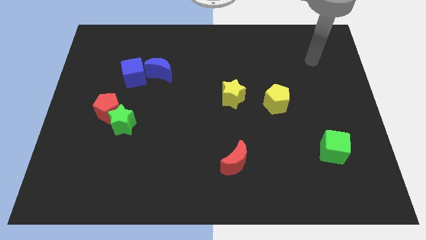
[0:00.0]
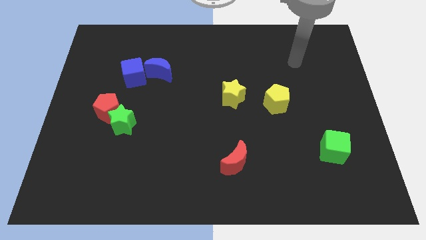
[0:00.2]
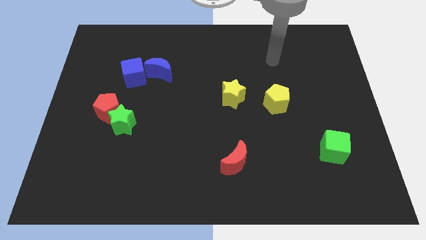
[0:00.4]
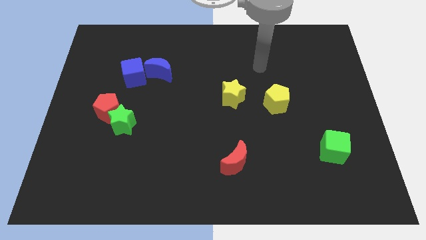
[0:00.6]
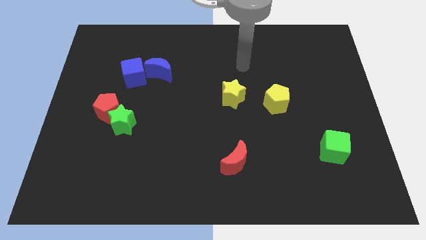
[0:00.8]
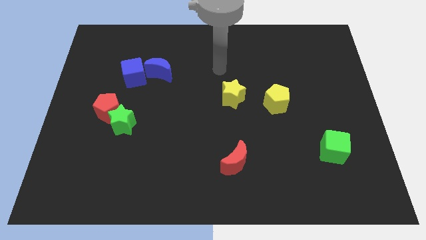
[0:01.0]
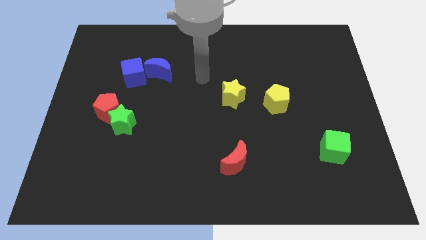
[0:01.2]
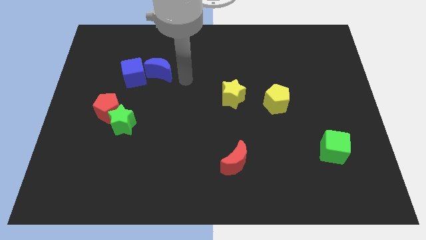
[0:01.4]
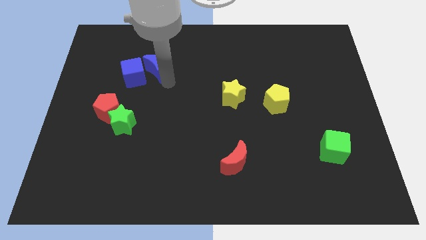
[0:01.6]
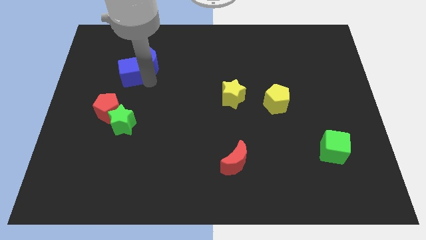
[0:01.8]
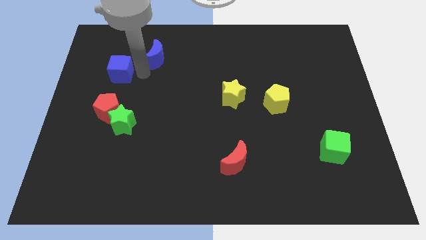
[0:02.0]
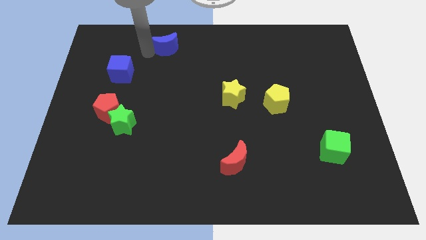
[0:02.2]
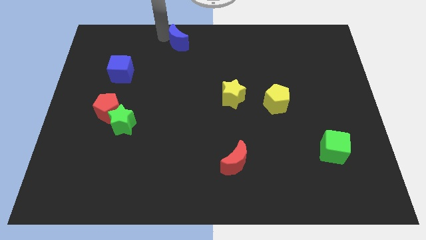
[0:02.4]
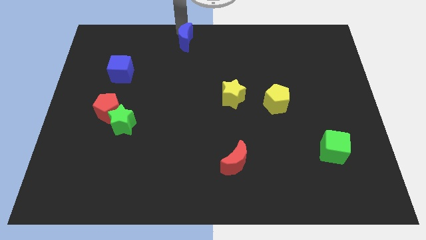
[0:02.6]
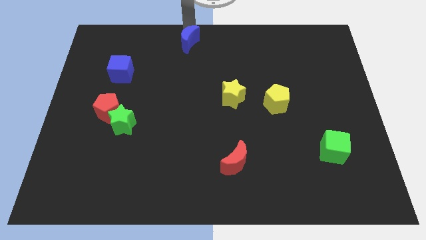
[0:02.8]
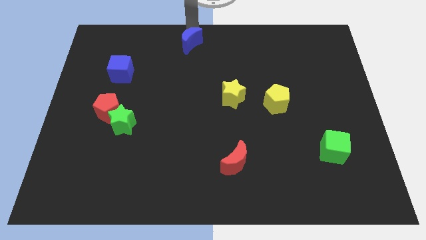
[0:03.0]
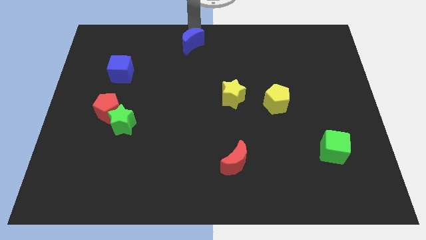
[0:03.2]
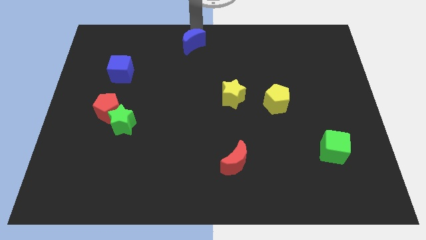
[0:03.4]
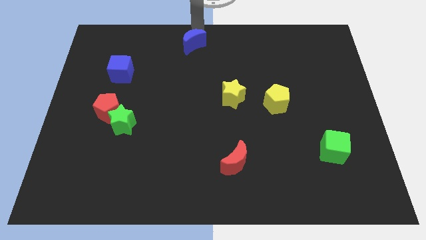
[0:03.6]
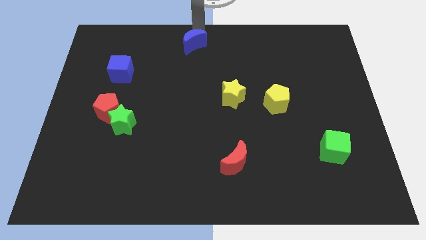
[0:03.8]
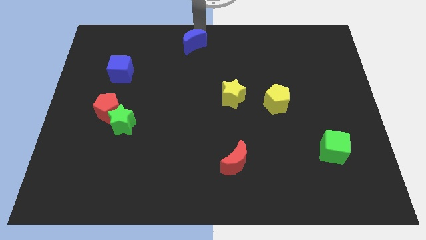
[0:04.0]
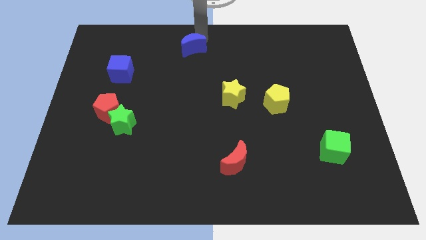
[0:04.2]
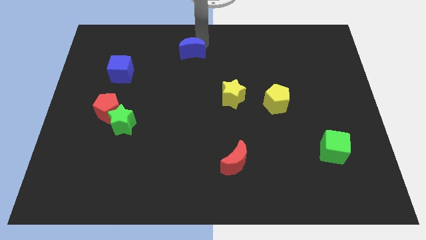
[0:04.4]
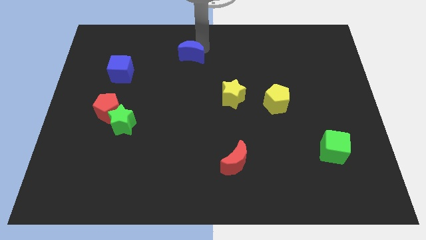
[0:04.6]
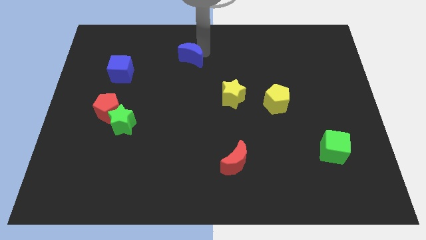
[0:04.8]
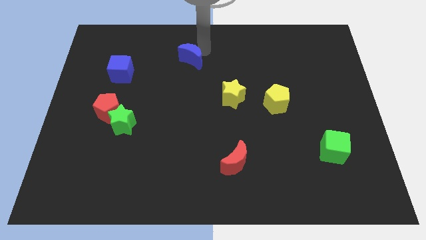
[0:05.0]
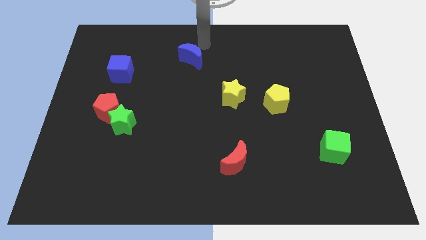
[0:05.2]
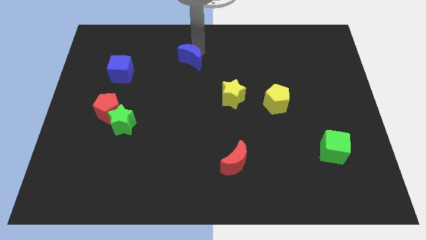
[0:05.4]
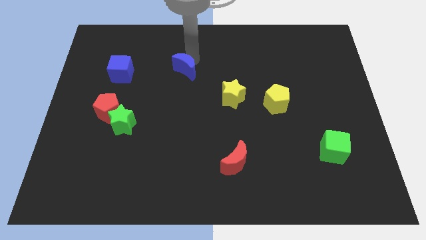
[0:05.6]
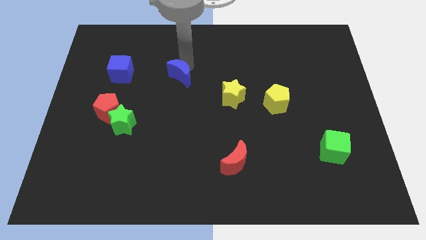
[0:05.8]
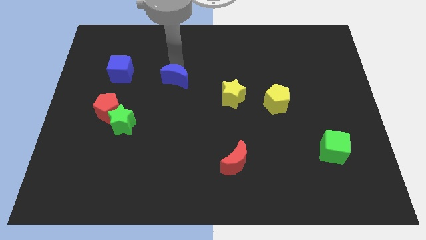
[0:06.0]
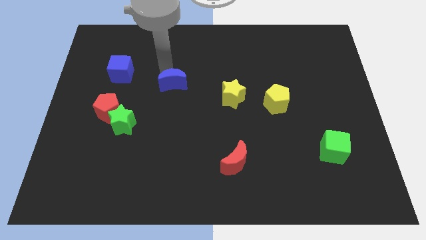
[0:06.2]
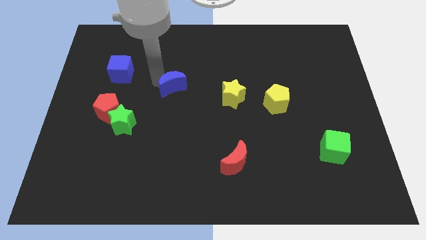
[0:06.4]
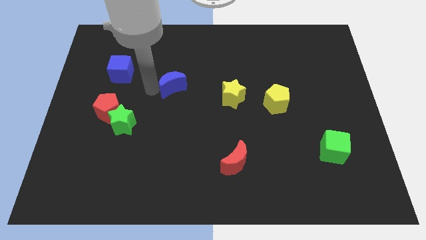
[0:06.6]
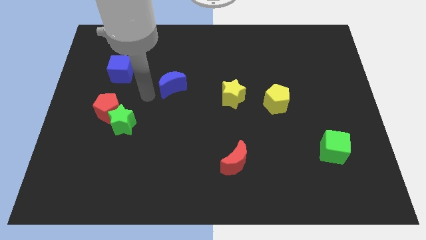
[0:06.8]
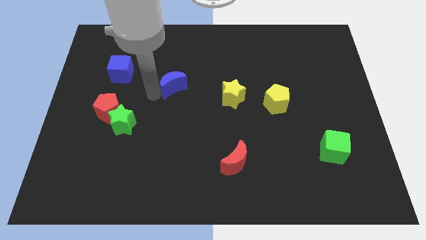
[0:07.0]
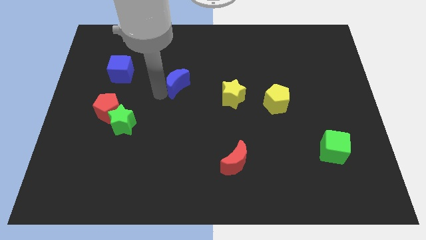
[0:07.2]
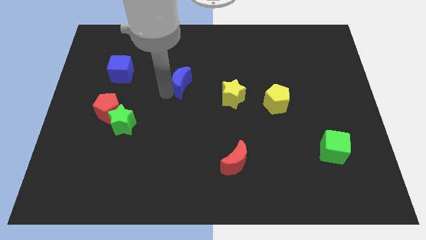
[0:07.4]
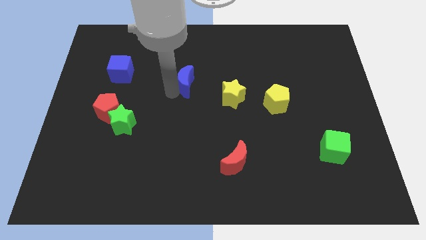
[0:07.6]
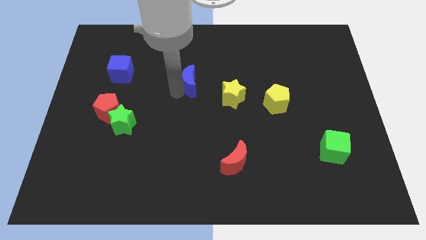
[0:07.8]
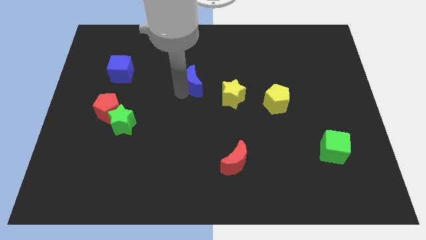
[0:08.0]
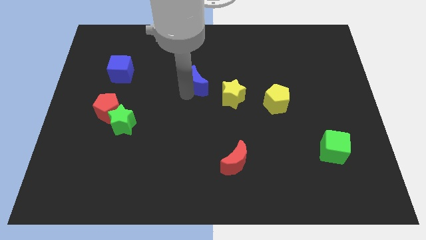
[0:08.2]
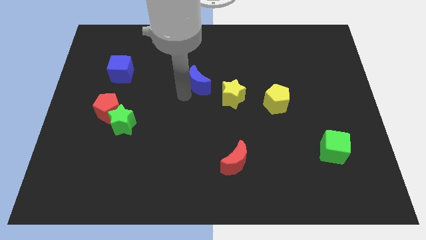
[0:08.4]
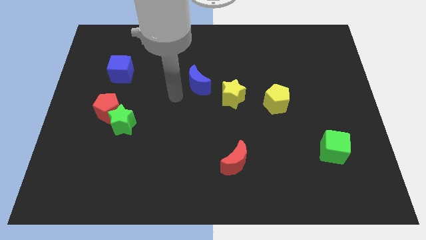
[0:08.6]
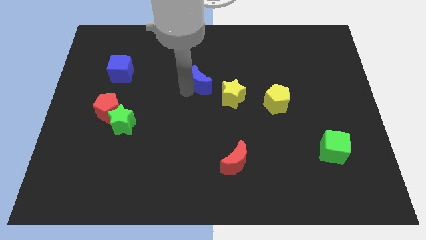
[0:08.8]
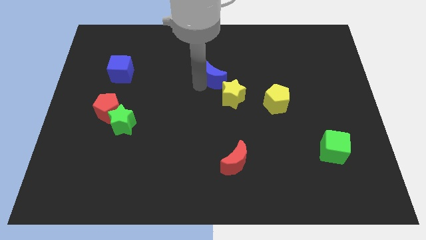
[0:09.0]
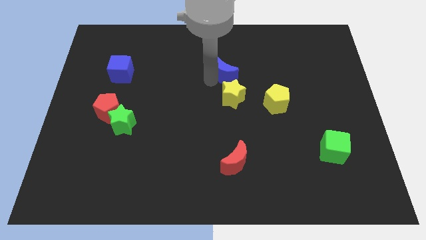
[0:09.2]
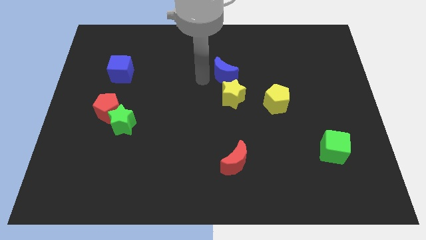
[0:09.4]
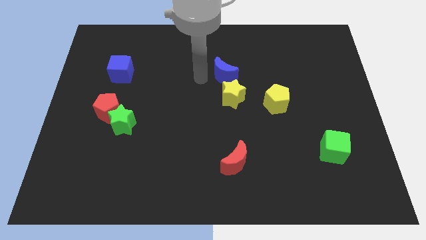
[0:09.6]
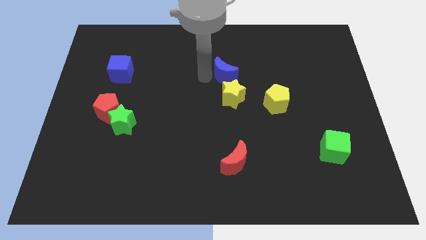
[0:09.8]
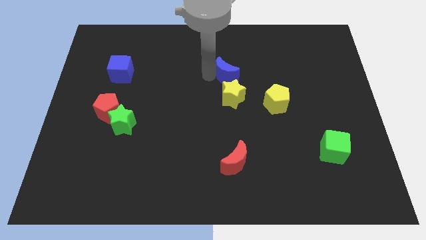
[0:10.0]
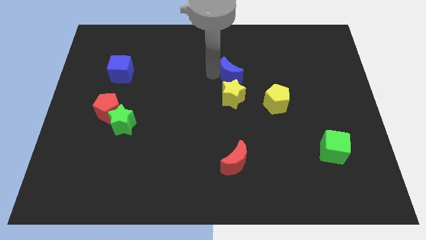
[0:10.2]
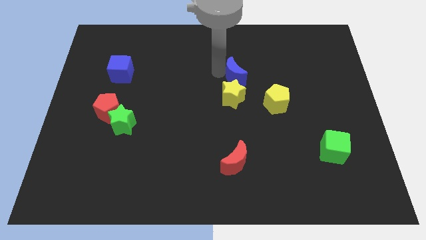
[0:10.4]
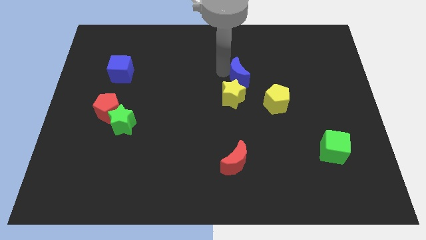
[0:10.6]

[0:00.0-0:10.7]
move the blue moon to the right

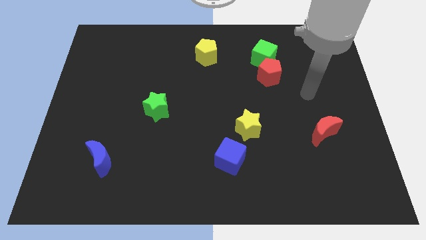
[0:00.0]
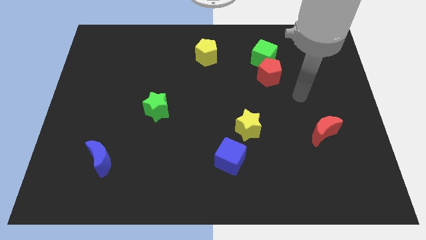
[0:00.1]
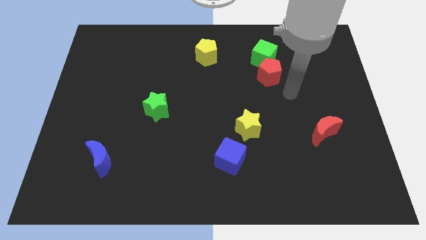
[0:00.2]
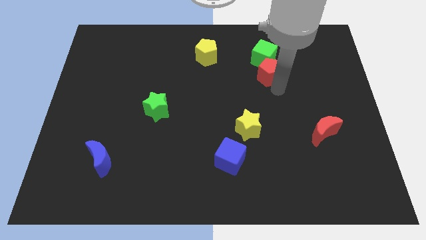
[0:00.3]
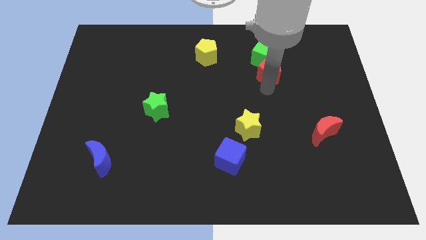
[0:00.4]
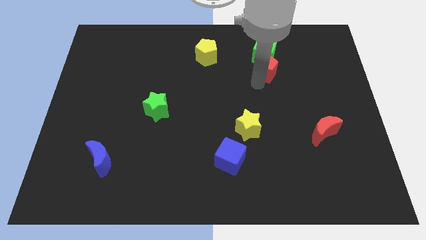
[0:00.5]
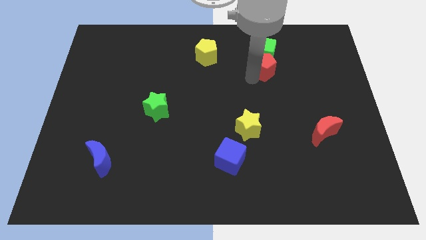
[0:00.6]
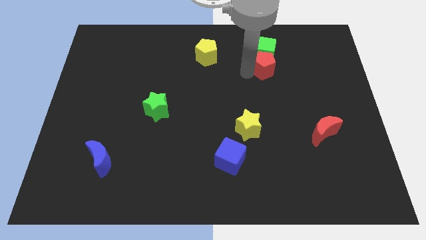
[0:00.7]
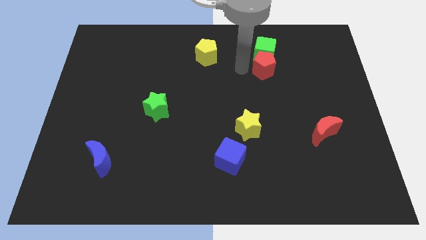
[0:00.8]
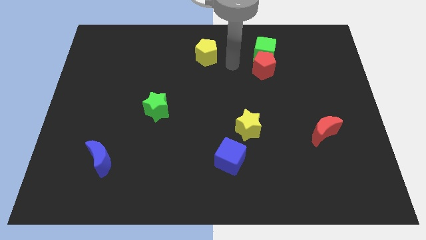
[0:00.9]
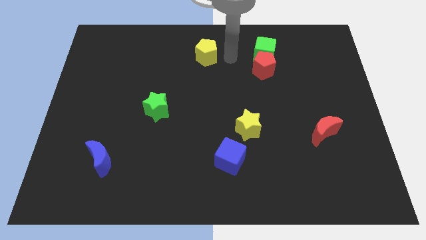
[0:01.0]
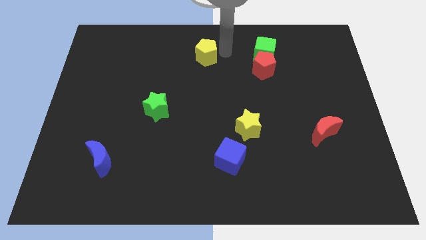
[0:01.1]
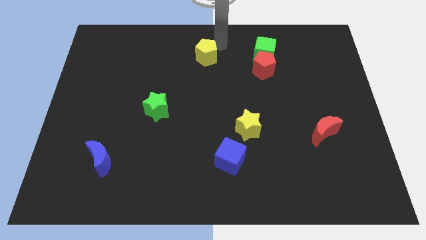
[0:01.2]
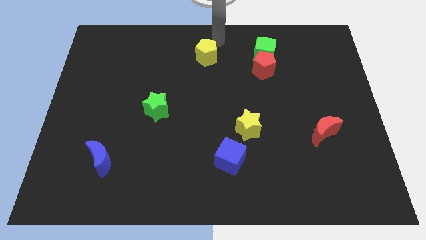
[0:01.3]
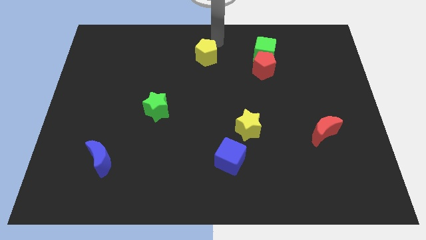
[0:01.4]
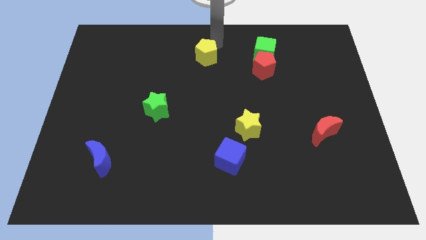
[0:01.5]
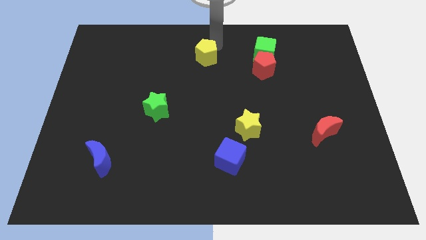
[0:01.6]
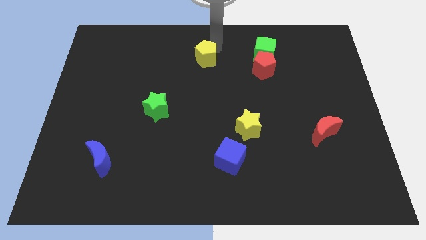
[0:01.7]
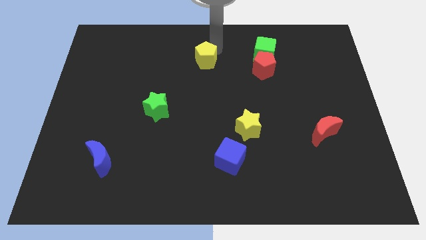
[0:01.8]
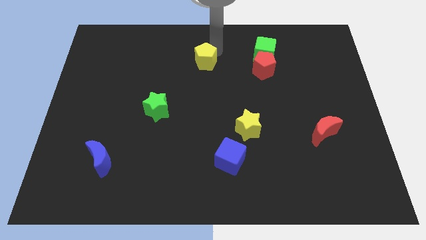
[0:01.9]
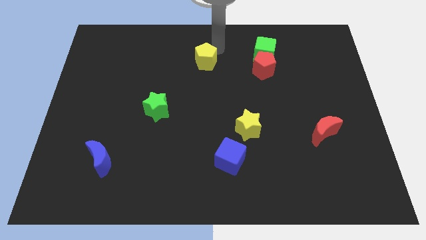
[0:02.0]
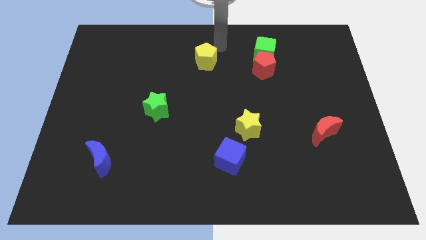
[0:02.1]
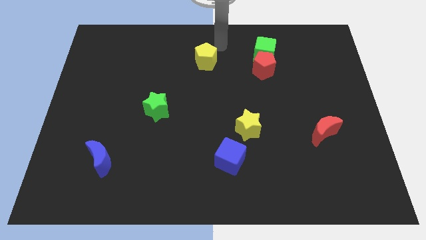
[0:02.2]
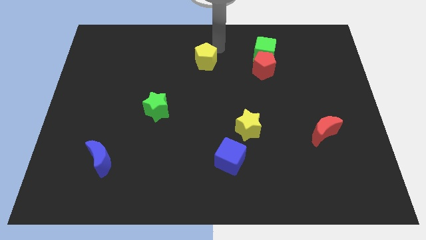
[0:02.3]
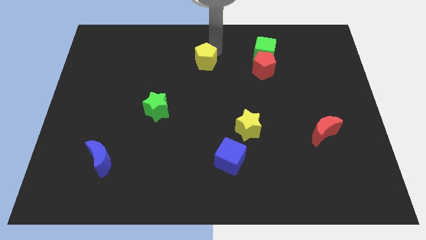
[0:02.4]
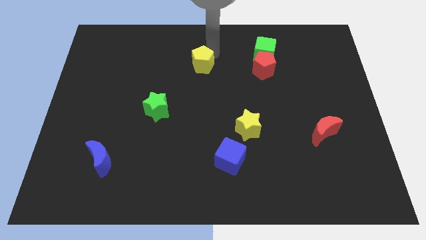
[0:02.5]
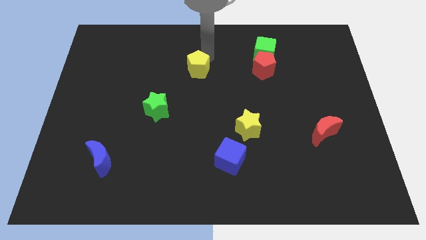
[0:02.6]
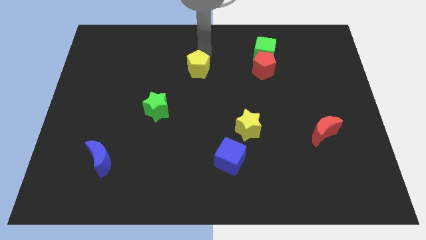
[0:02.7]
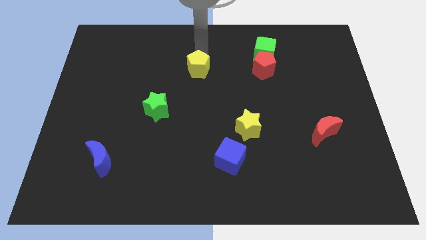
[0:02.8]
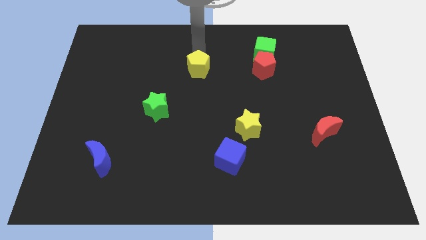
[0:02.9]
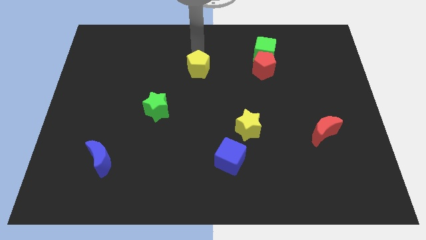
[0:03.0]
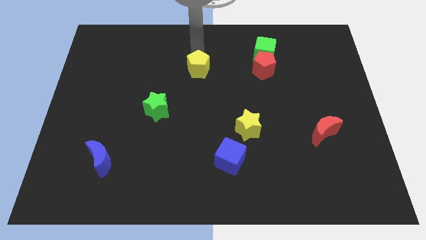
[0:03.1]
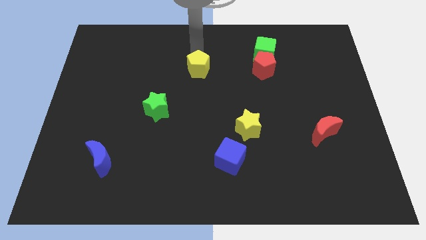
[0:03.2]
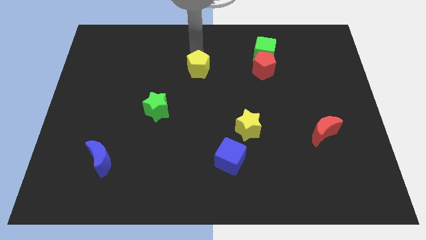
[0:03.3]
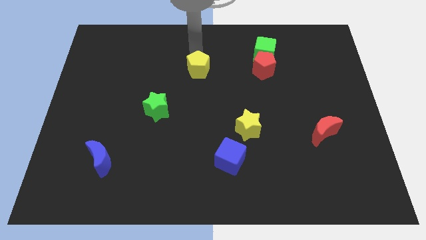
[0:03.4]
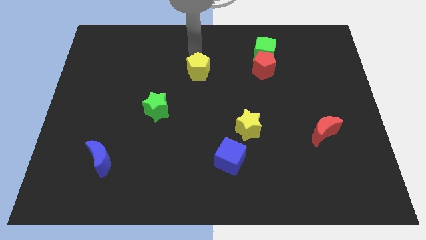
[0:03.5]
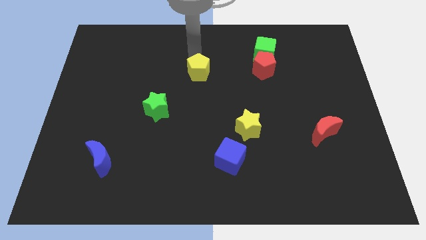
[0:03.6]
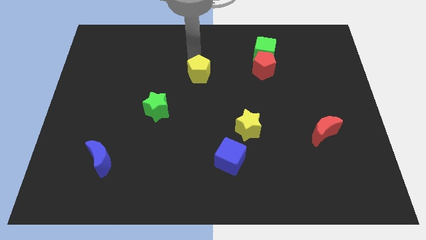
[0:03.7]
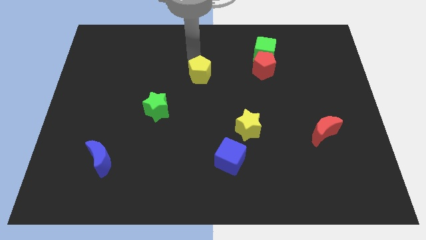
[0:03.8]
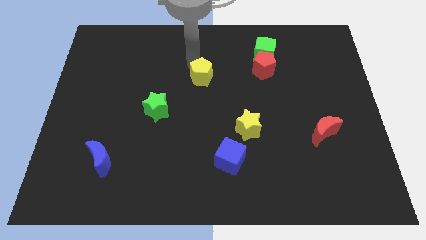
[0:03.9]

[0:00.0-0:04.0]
move the yellow pentagon somewhat down
